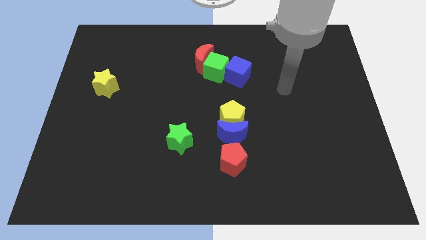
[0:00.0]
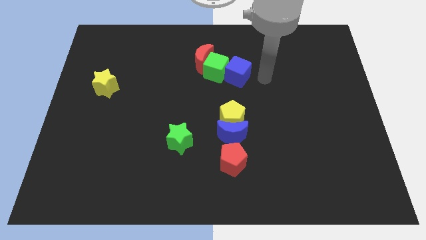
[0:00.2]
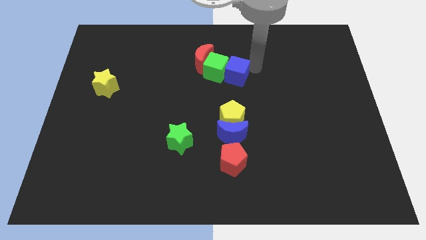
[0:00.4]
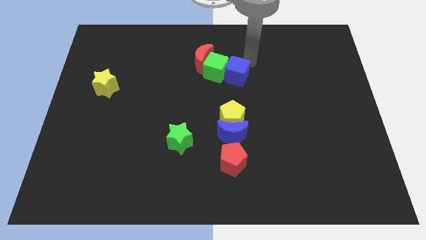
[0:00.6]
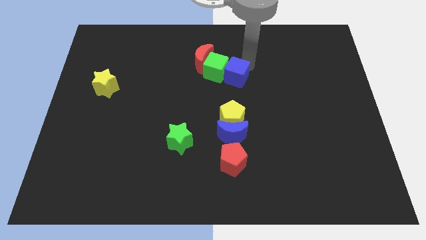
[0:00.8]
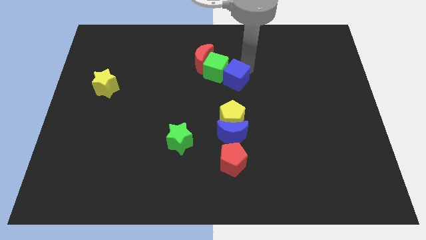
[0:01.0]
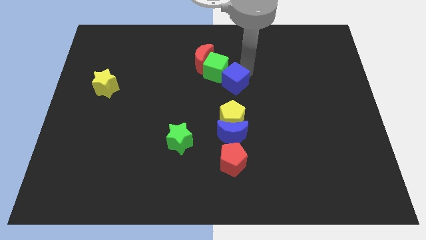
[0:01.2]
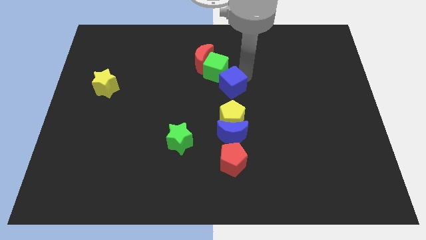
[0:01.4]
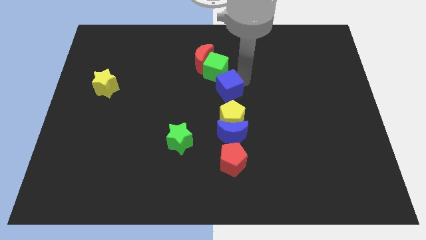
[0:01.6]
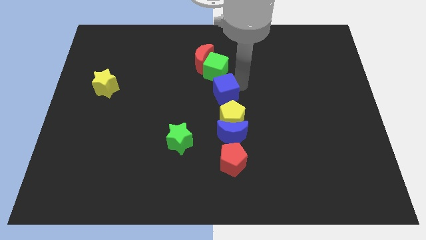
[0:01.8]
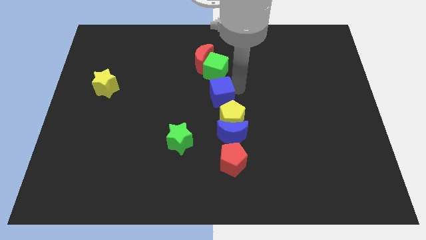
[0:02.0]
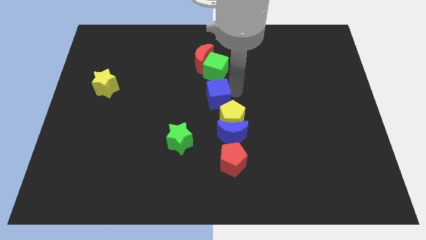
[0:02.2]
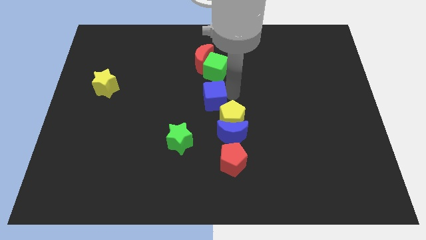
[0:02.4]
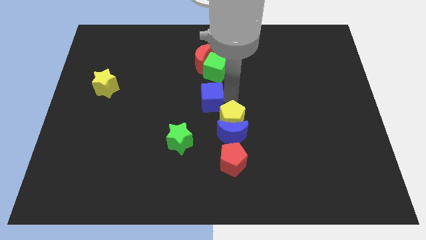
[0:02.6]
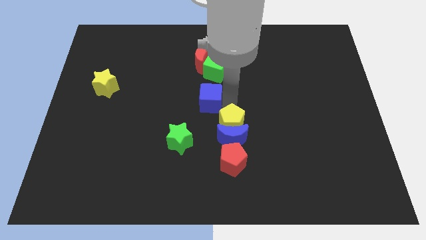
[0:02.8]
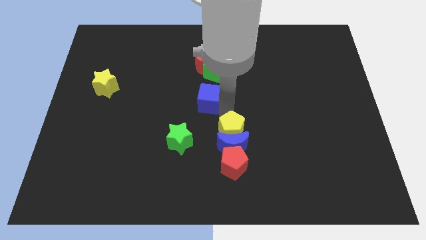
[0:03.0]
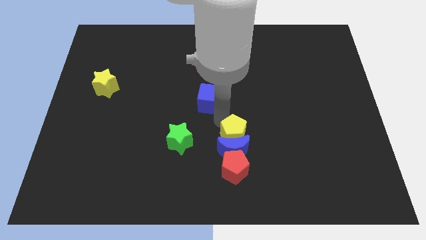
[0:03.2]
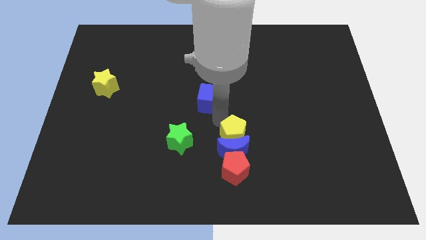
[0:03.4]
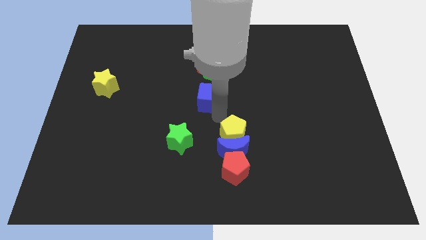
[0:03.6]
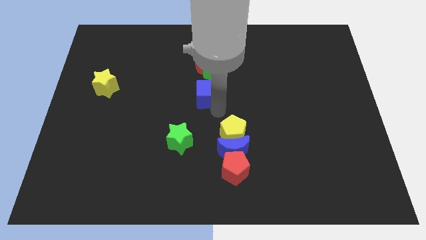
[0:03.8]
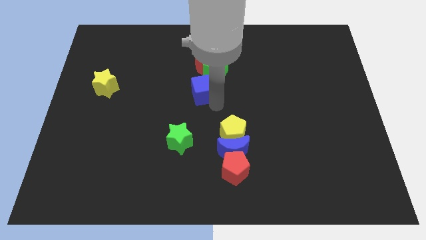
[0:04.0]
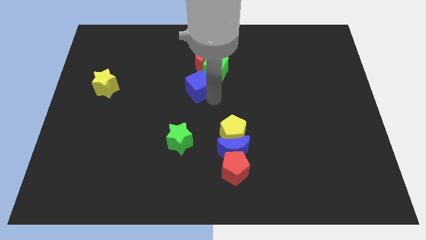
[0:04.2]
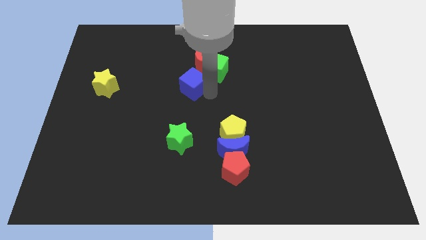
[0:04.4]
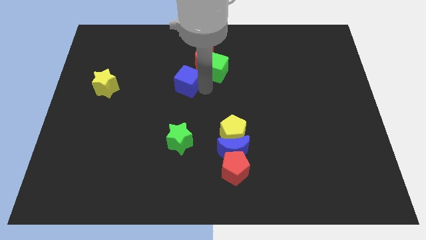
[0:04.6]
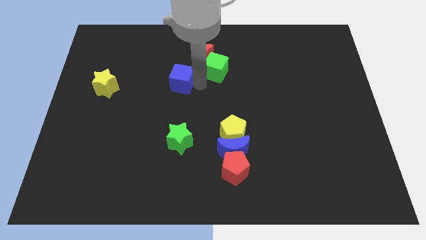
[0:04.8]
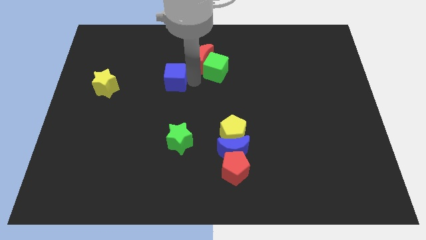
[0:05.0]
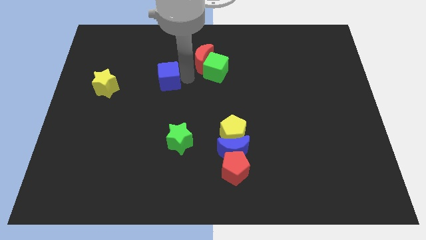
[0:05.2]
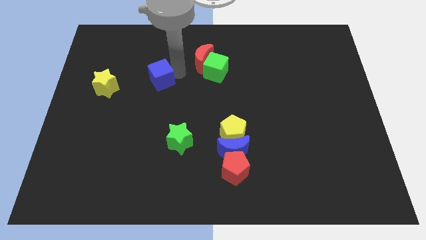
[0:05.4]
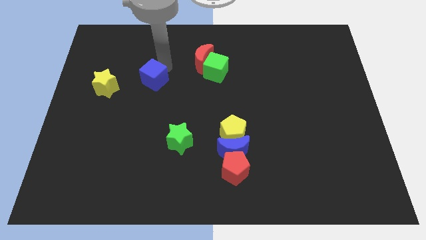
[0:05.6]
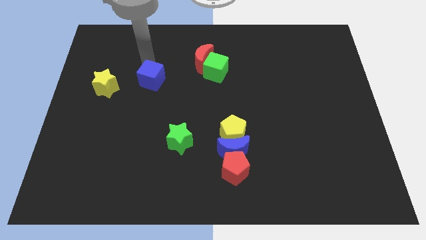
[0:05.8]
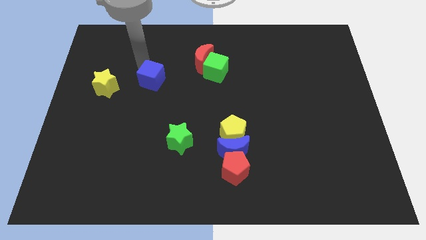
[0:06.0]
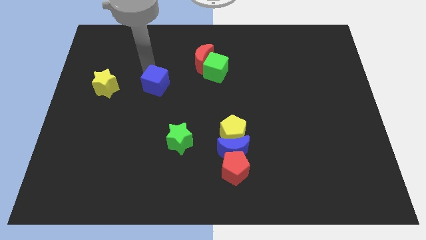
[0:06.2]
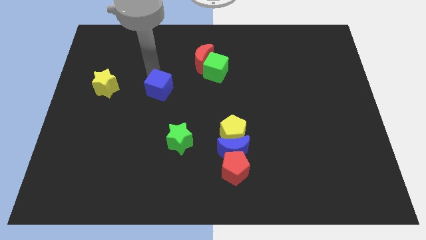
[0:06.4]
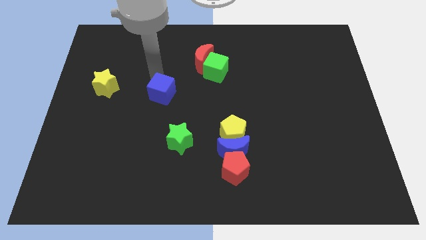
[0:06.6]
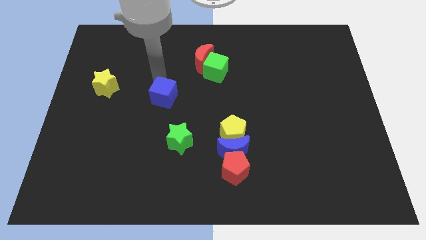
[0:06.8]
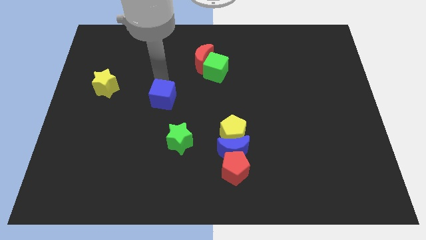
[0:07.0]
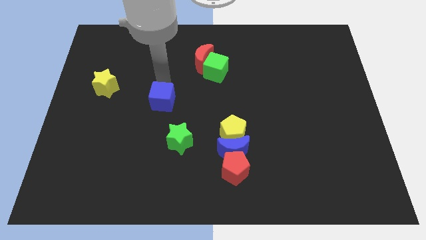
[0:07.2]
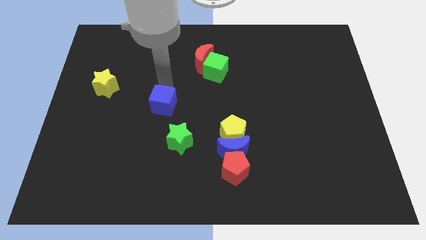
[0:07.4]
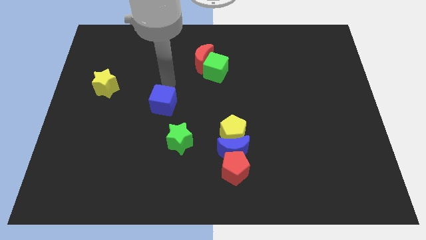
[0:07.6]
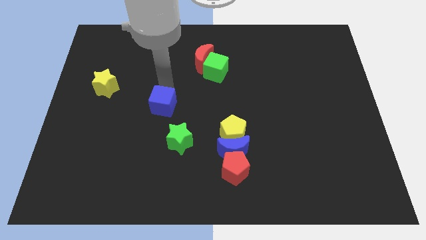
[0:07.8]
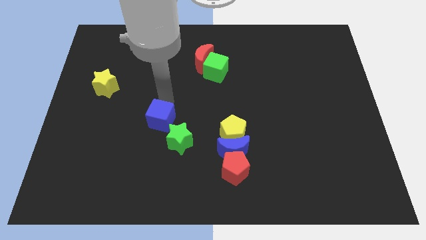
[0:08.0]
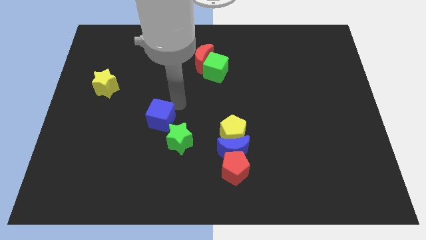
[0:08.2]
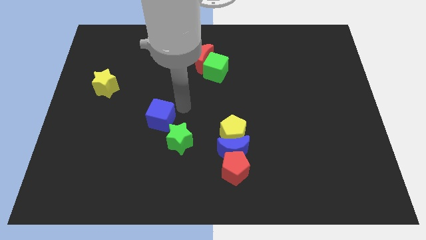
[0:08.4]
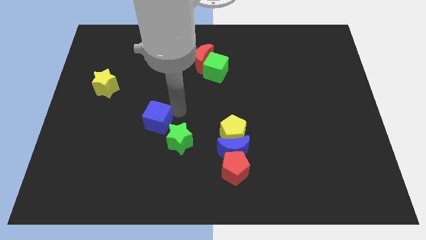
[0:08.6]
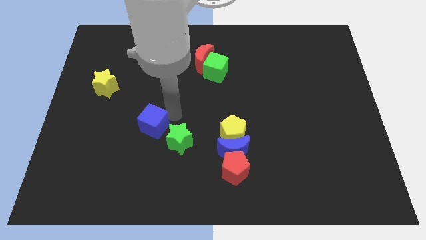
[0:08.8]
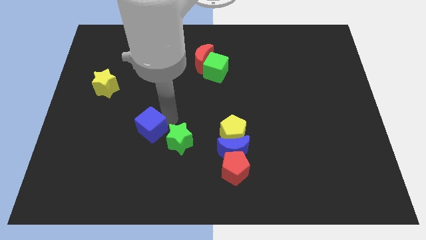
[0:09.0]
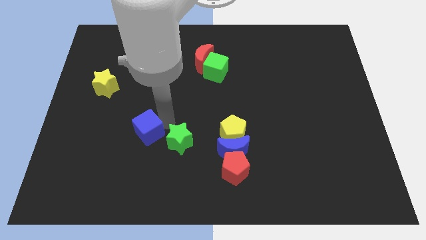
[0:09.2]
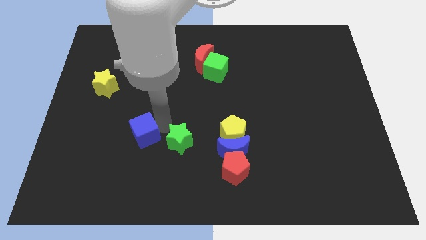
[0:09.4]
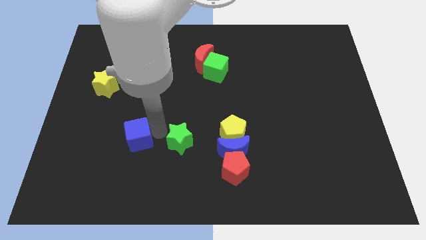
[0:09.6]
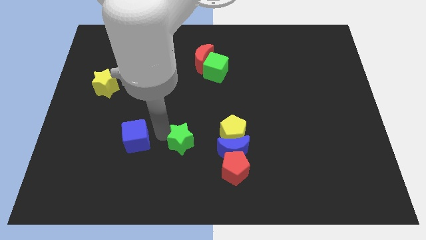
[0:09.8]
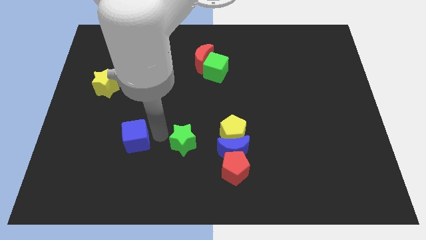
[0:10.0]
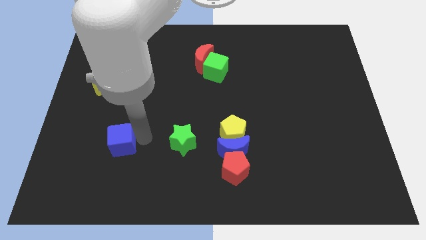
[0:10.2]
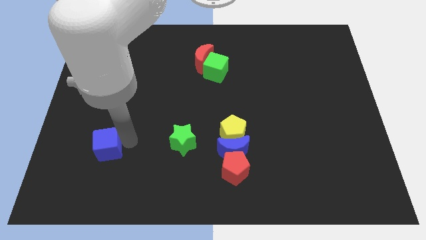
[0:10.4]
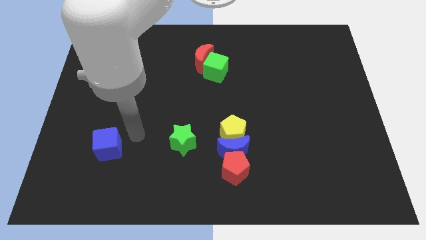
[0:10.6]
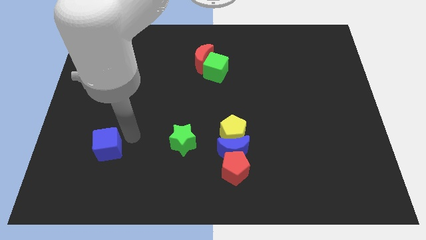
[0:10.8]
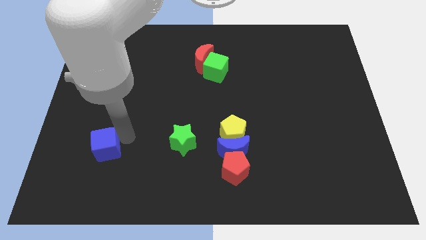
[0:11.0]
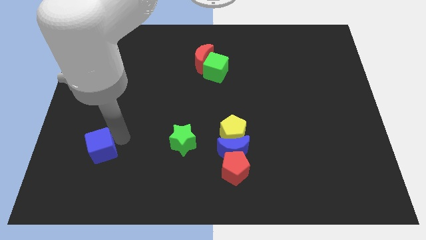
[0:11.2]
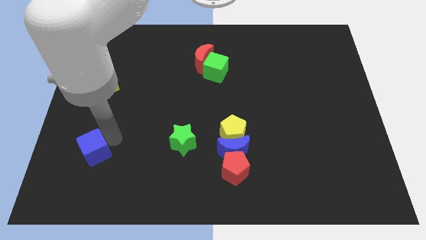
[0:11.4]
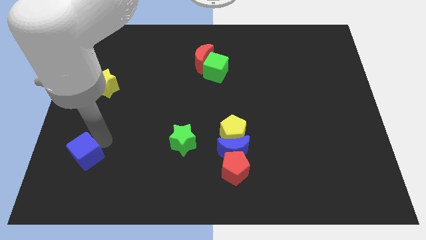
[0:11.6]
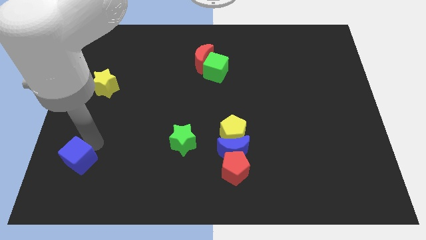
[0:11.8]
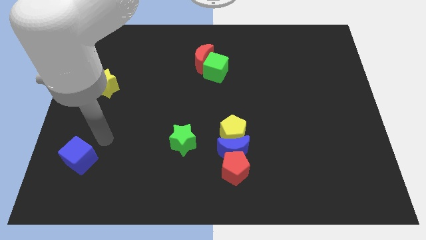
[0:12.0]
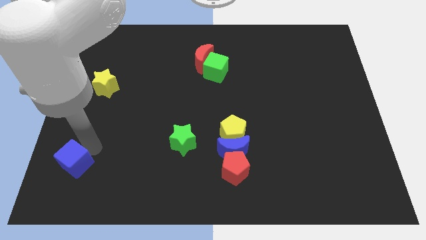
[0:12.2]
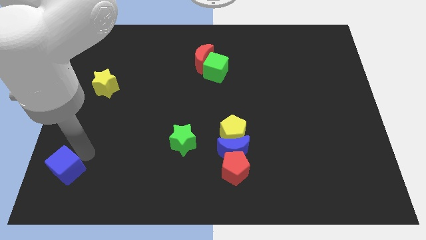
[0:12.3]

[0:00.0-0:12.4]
put the blue cube to the lower left corner
